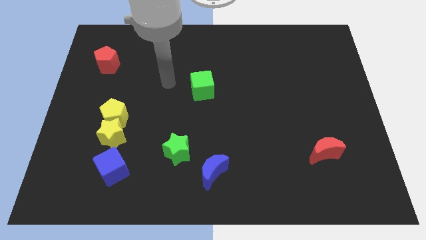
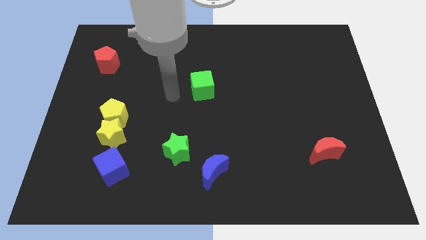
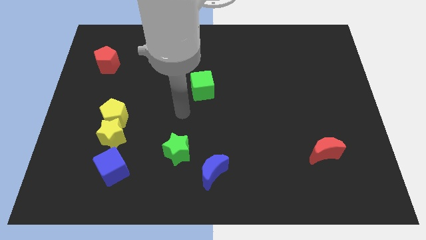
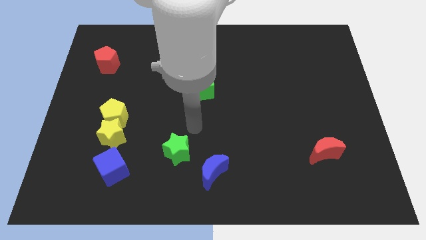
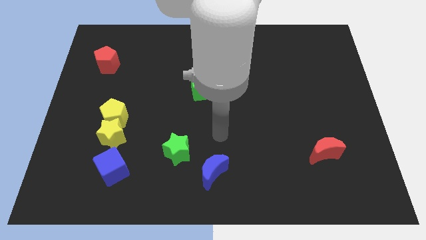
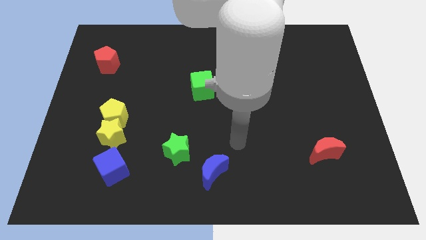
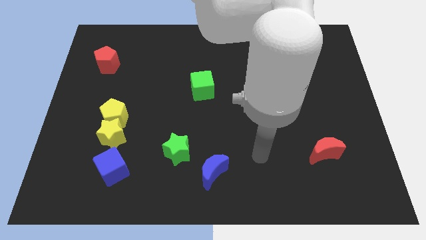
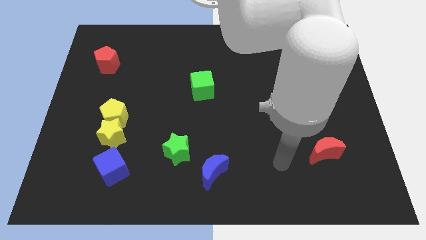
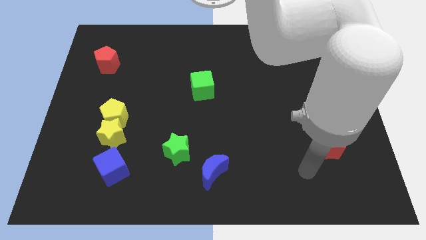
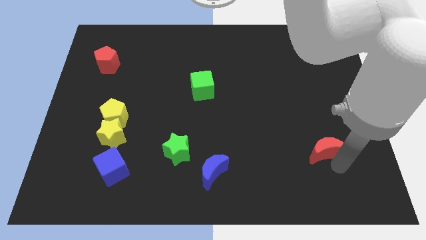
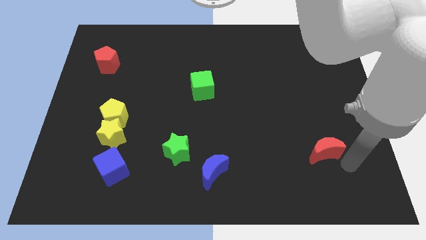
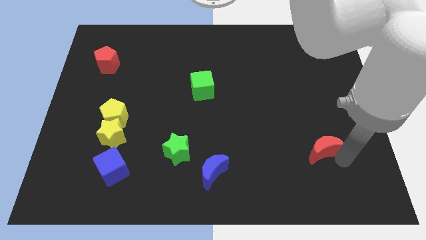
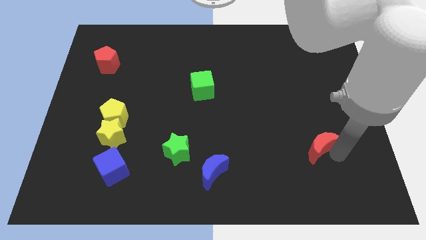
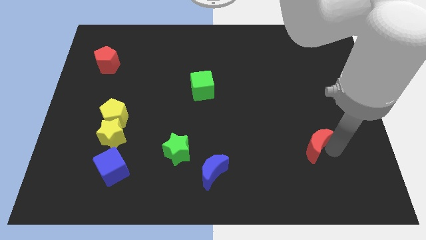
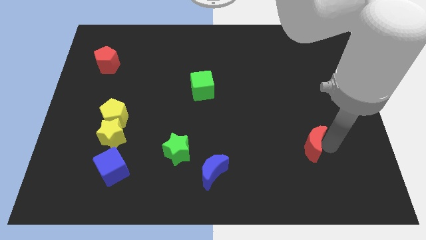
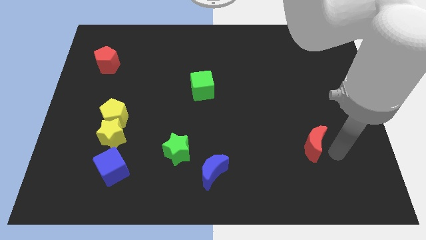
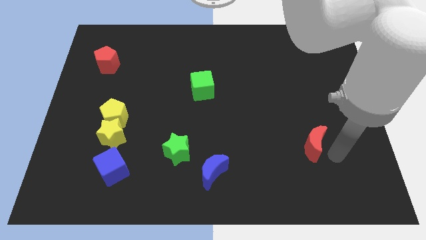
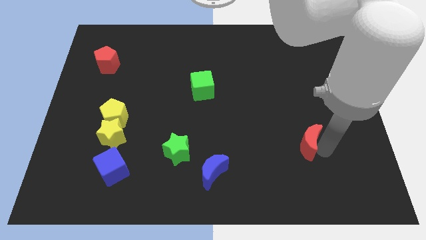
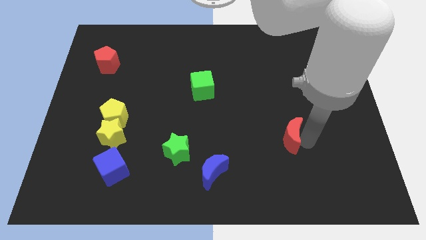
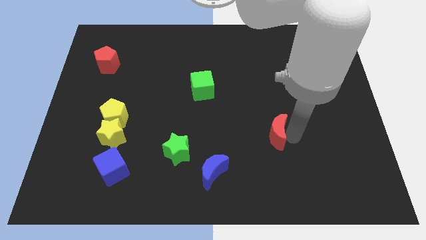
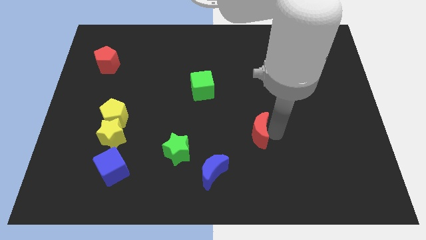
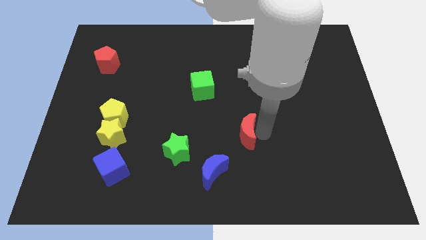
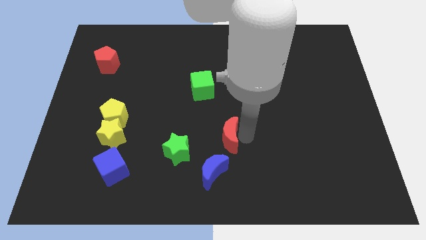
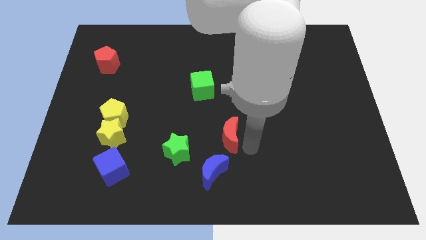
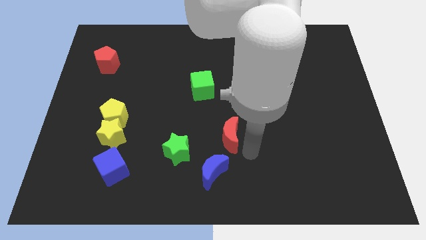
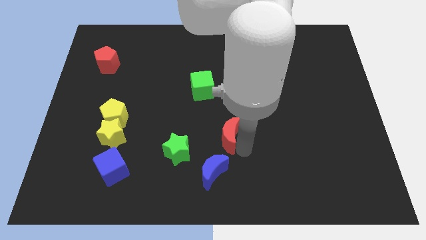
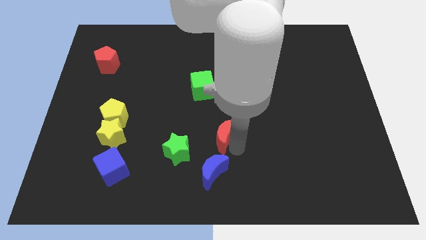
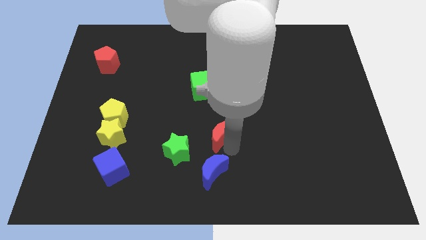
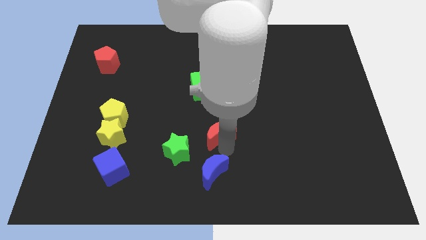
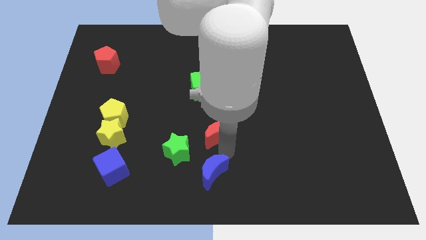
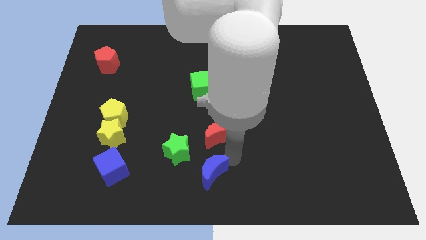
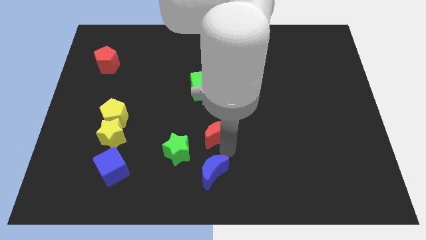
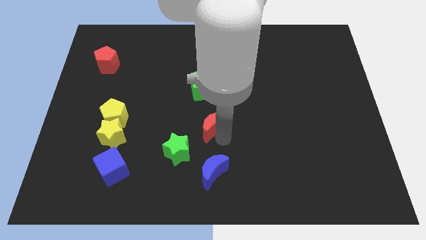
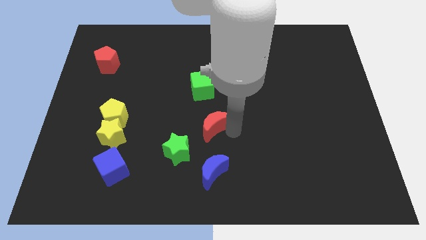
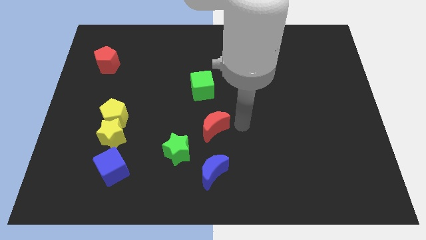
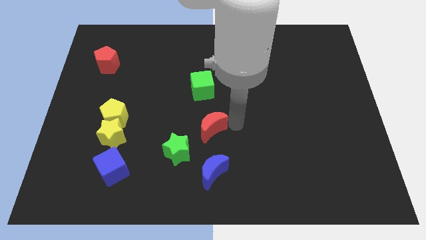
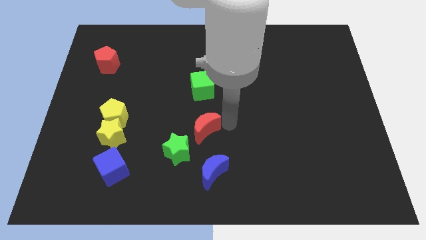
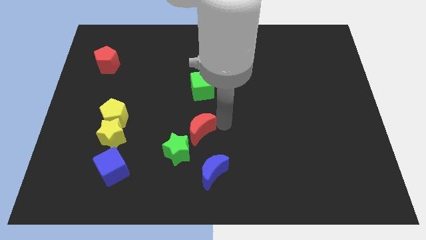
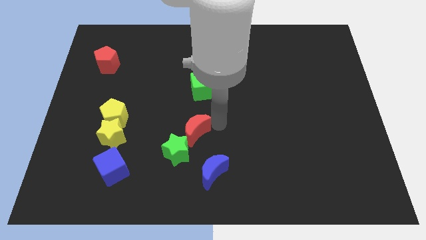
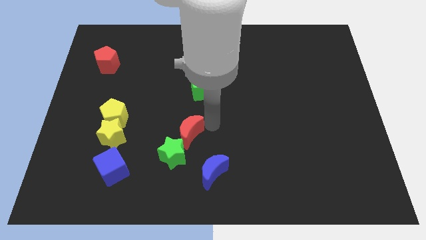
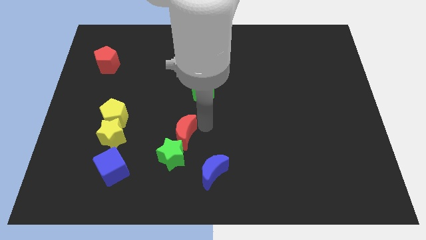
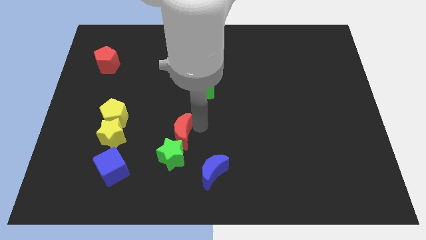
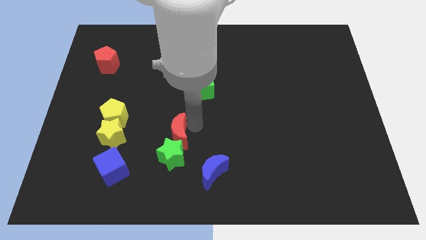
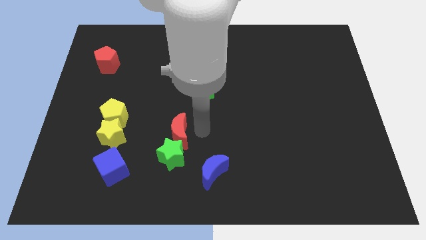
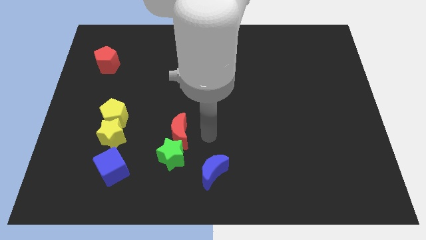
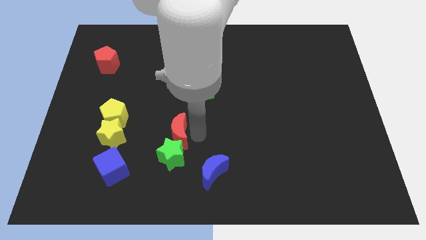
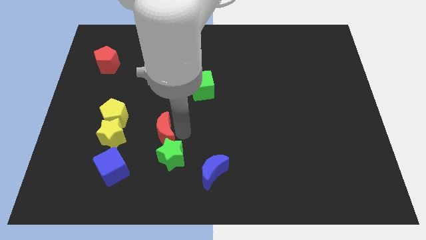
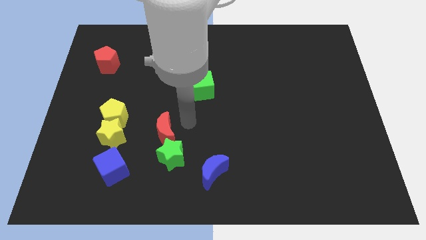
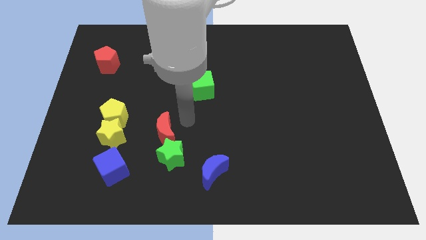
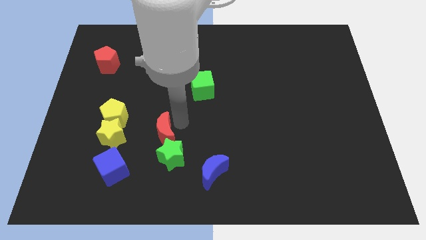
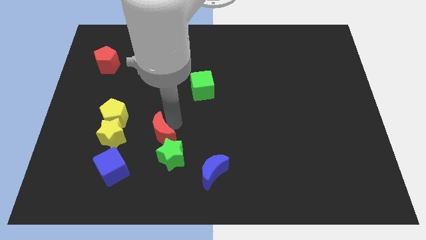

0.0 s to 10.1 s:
move the red moon diagonally up and to the right of the blue cube

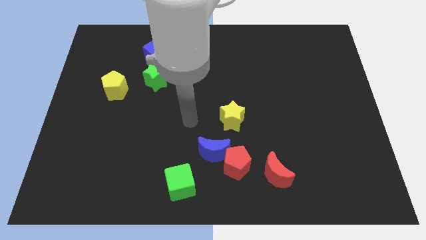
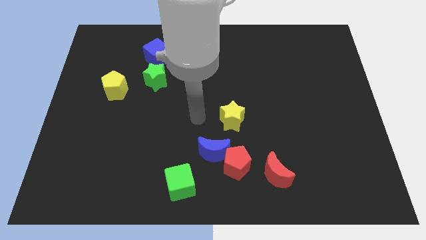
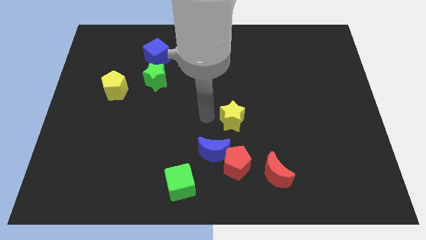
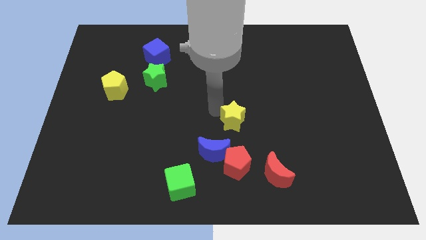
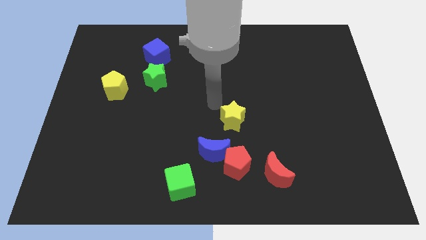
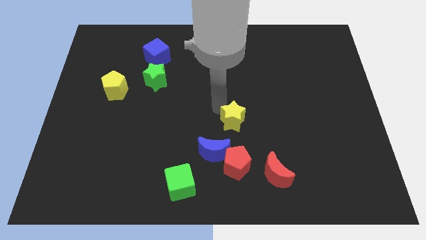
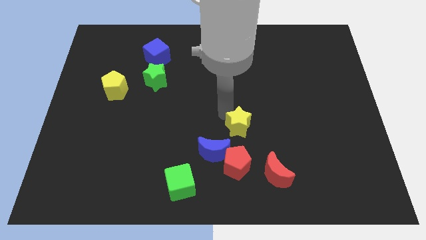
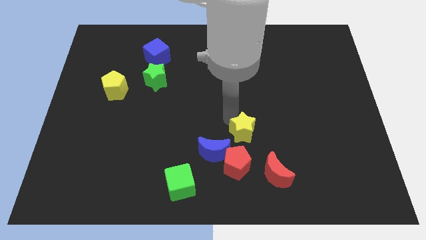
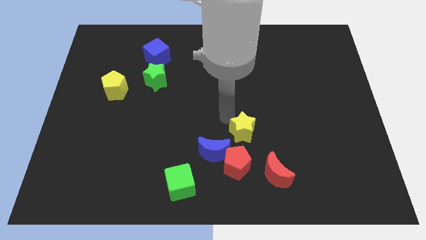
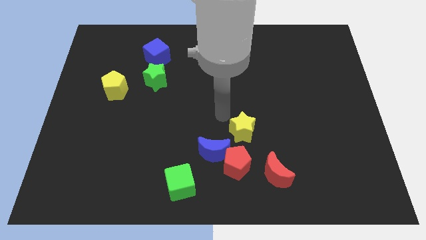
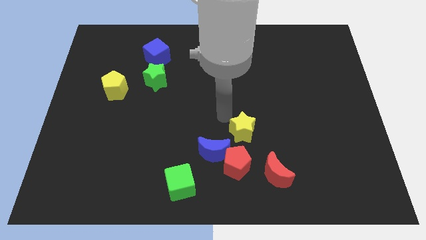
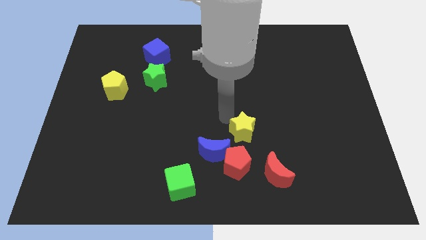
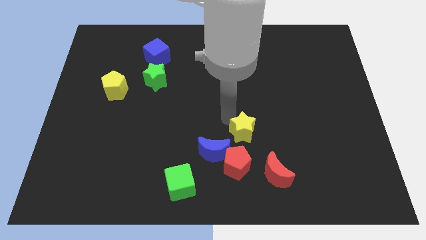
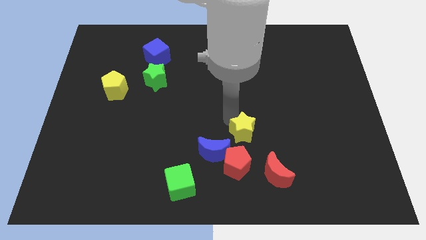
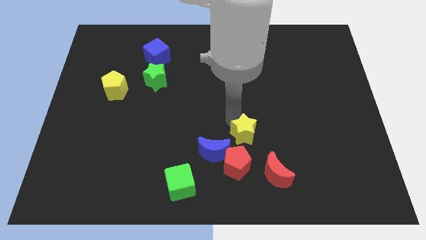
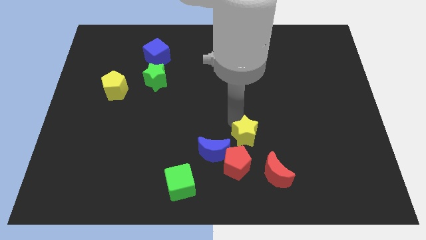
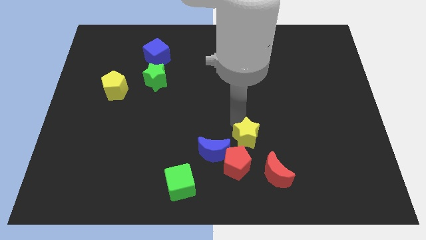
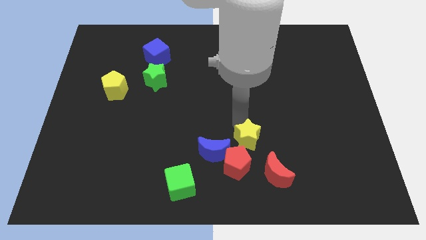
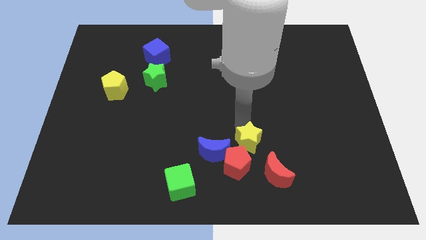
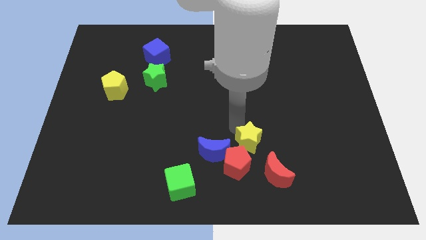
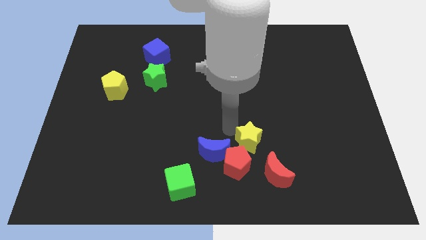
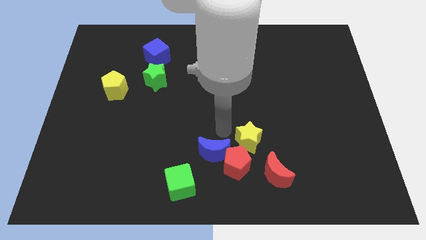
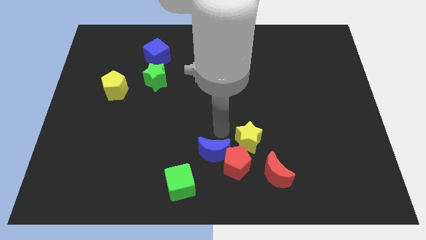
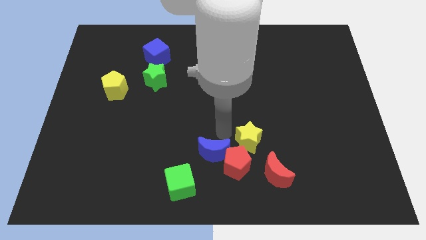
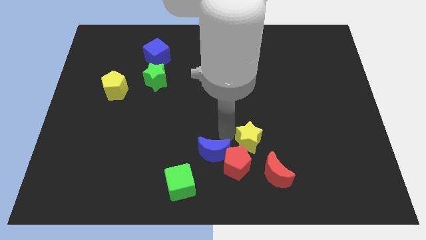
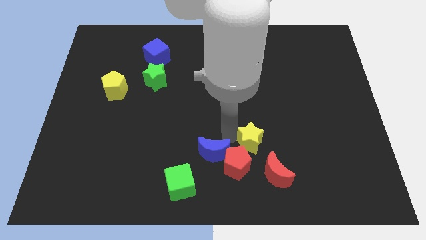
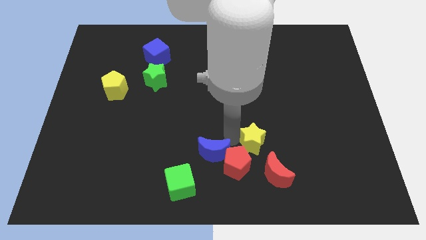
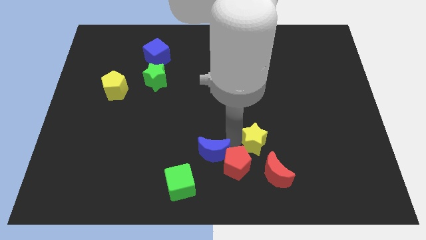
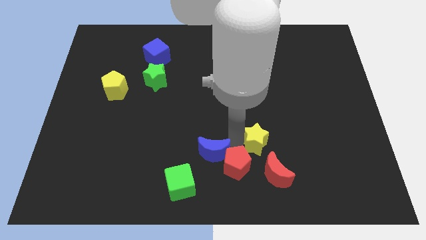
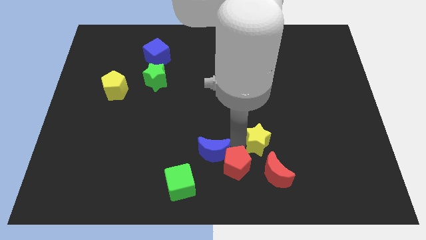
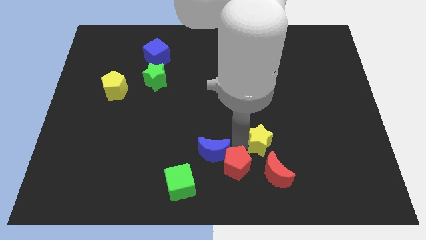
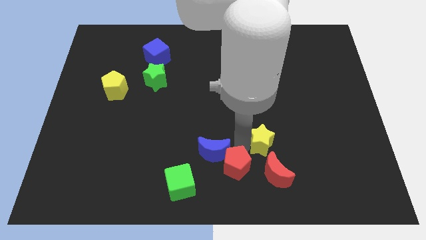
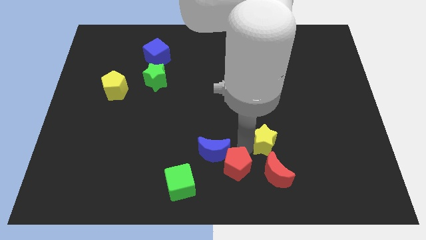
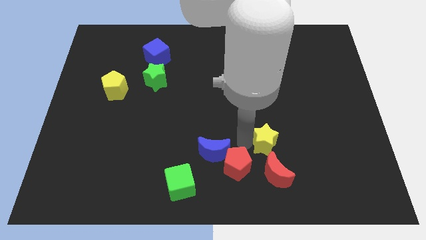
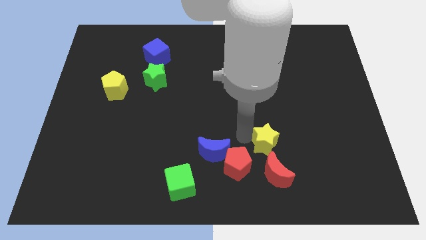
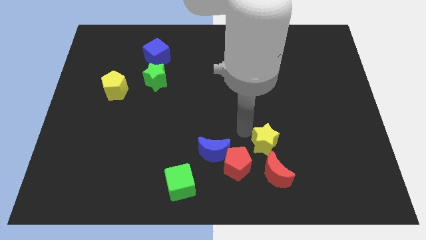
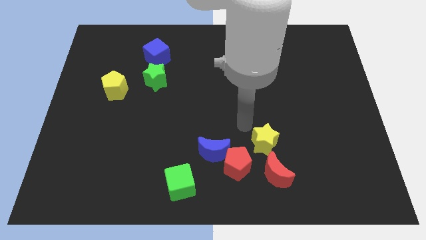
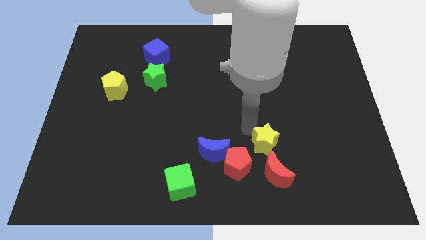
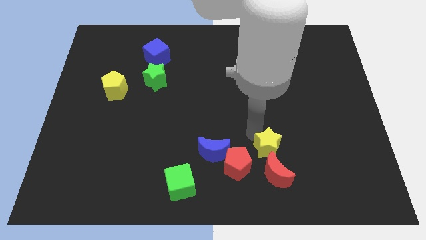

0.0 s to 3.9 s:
slide the yellow star right of the red pentagon
